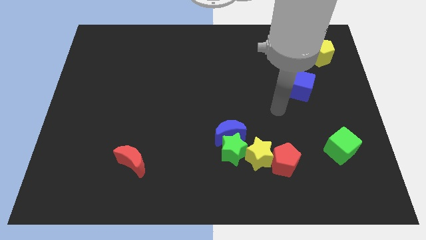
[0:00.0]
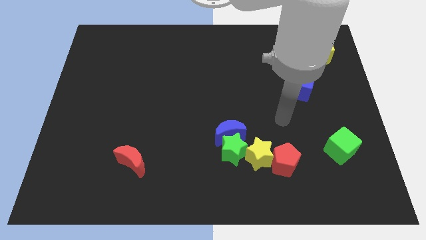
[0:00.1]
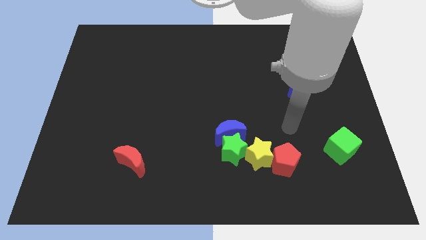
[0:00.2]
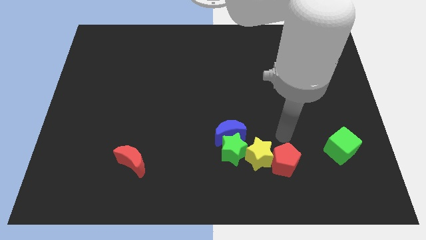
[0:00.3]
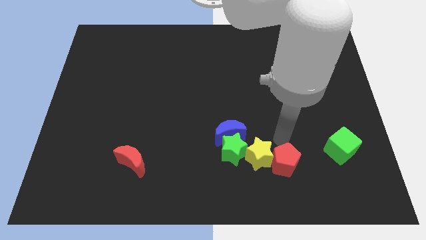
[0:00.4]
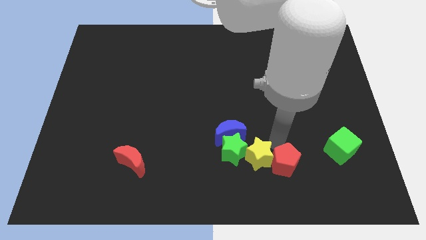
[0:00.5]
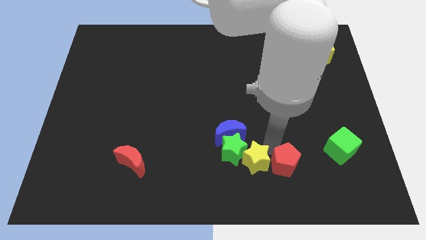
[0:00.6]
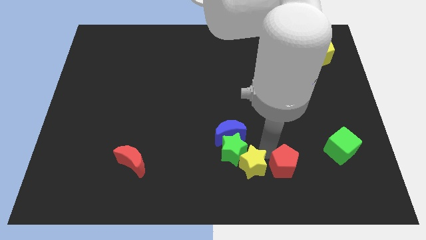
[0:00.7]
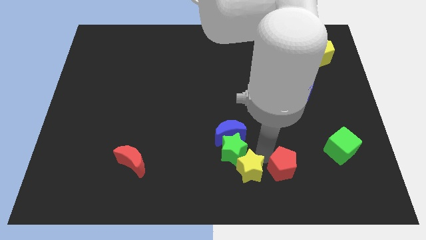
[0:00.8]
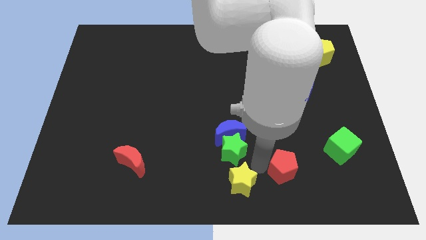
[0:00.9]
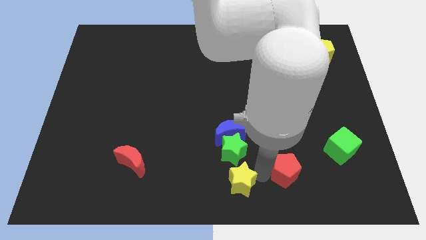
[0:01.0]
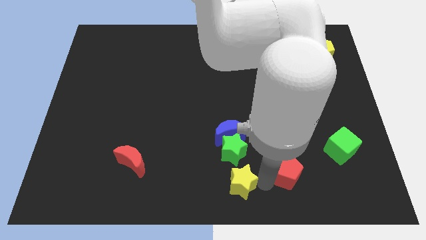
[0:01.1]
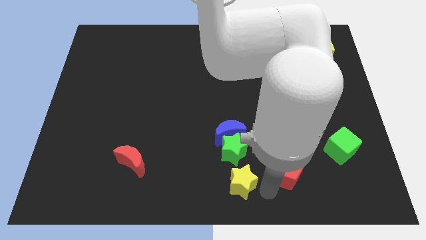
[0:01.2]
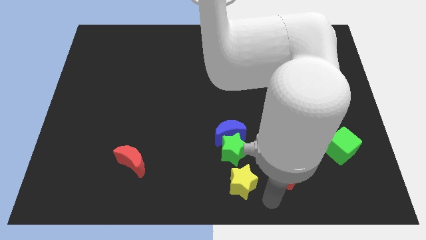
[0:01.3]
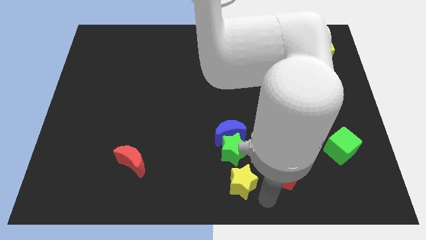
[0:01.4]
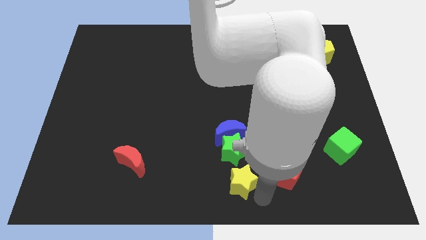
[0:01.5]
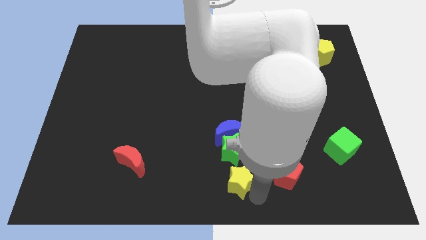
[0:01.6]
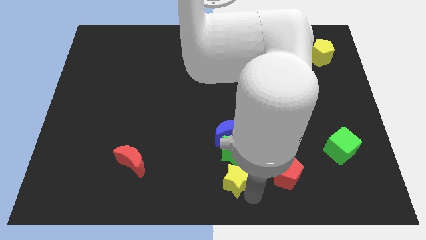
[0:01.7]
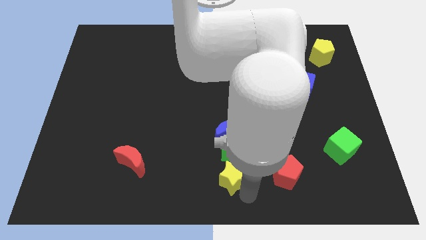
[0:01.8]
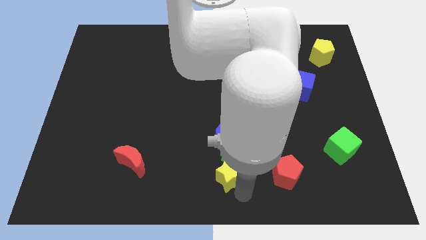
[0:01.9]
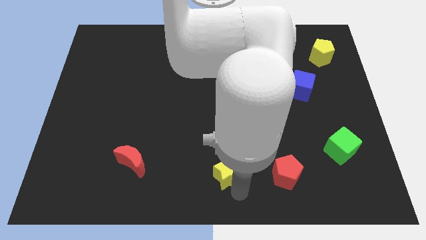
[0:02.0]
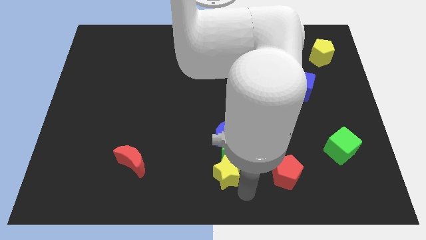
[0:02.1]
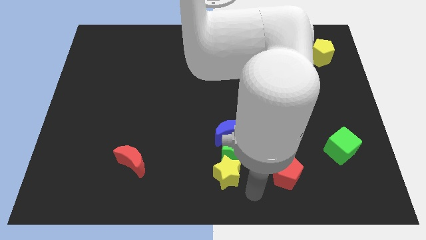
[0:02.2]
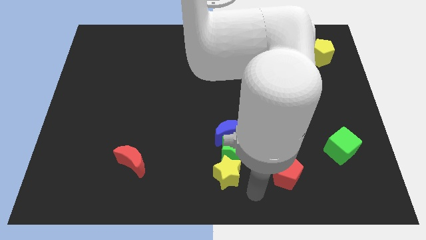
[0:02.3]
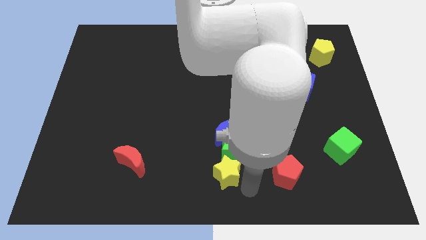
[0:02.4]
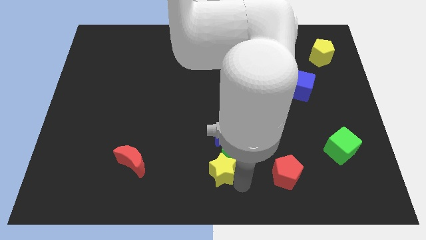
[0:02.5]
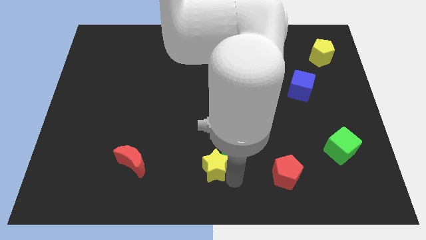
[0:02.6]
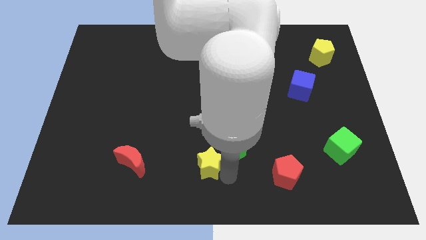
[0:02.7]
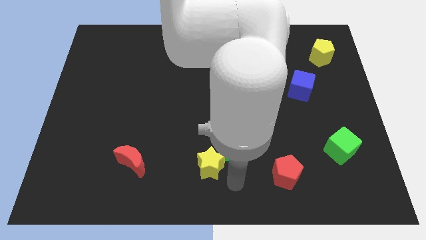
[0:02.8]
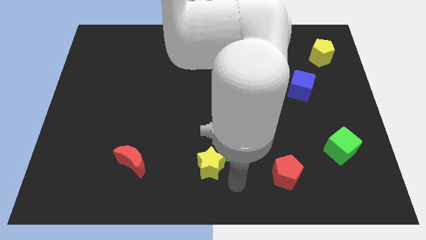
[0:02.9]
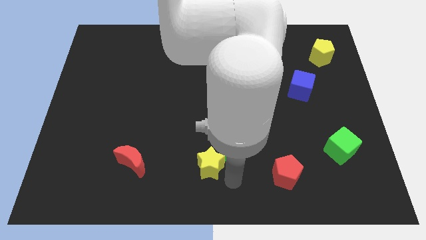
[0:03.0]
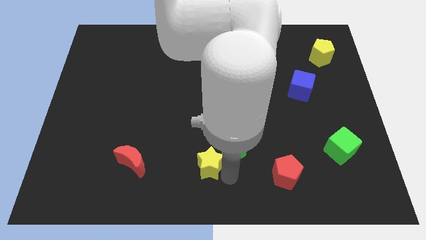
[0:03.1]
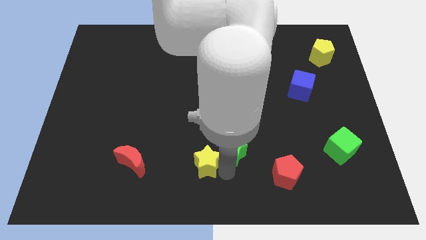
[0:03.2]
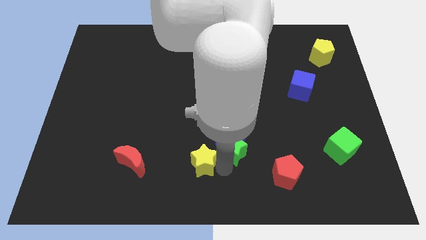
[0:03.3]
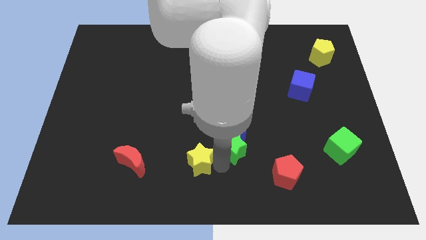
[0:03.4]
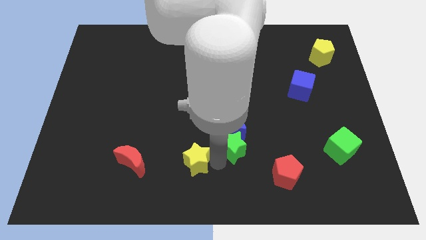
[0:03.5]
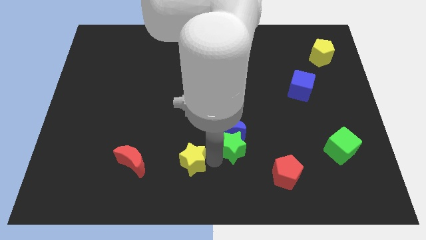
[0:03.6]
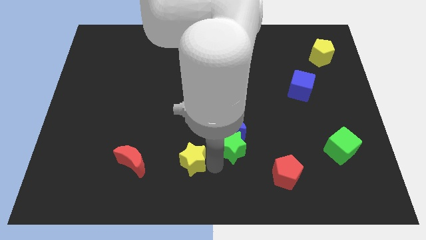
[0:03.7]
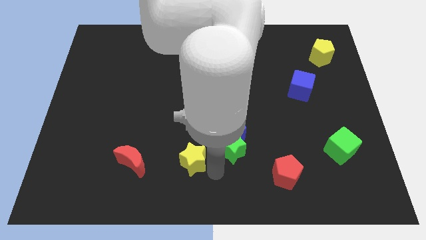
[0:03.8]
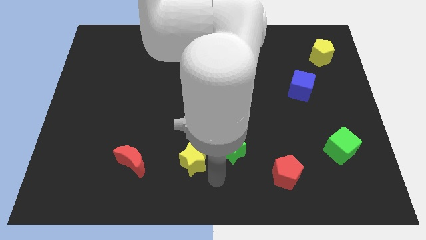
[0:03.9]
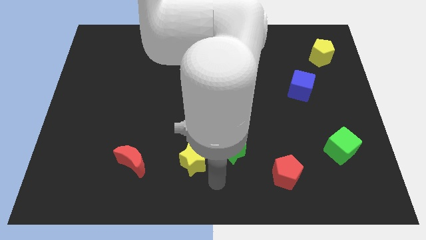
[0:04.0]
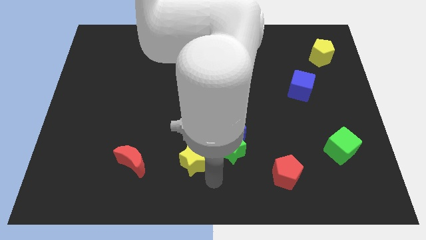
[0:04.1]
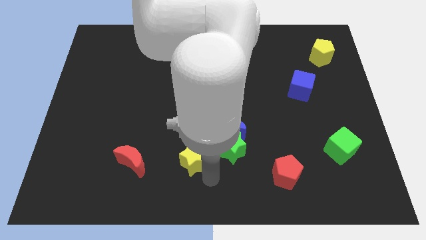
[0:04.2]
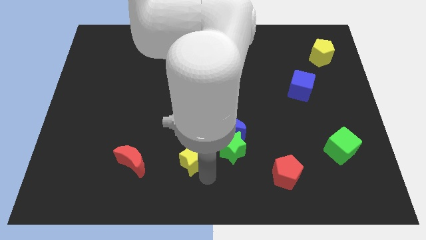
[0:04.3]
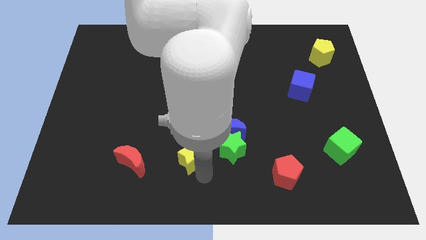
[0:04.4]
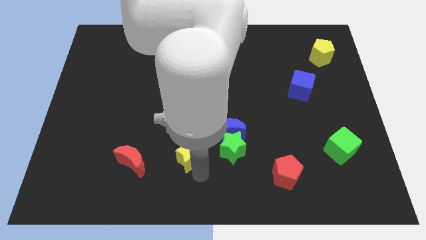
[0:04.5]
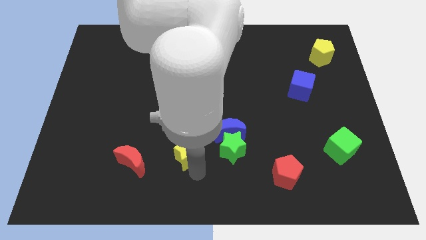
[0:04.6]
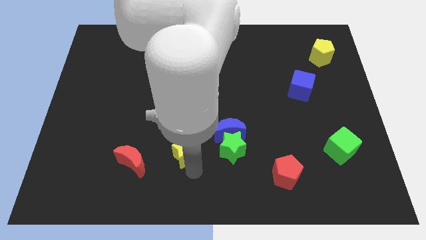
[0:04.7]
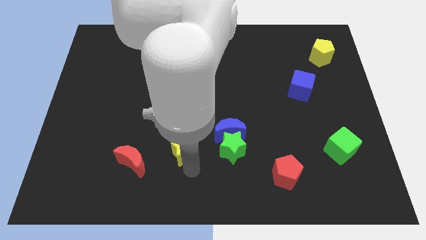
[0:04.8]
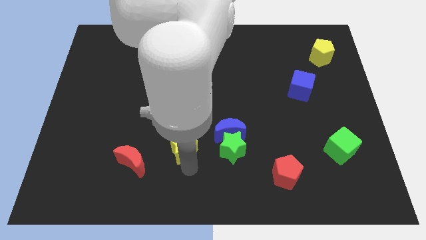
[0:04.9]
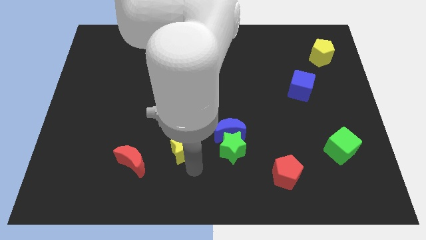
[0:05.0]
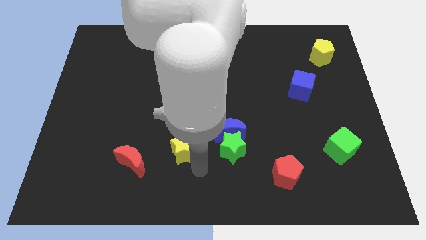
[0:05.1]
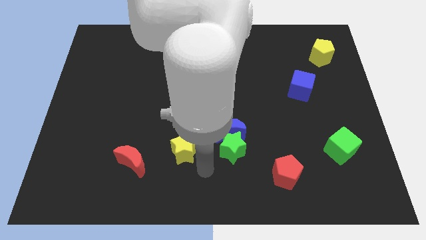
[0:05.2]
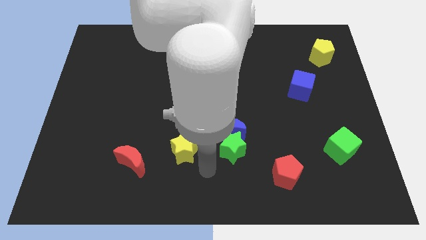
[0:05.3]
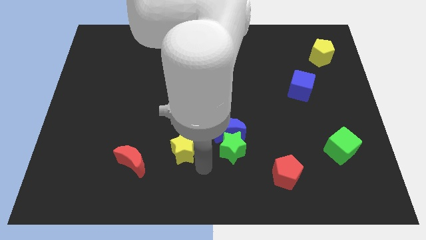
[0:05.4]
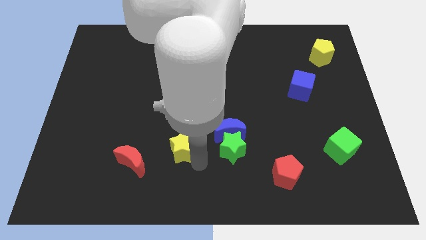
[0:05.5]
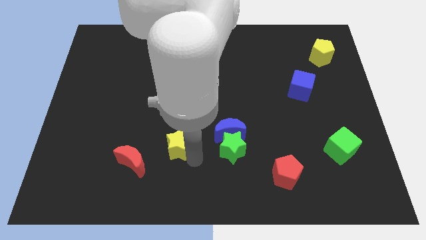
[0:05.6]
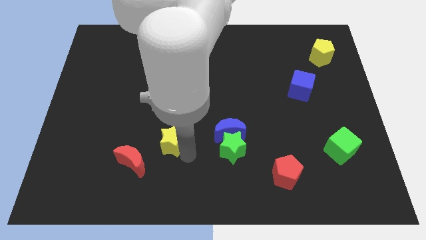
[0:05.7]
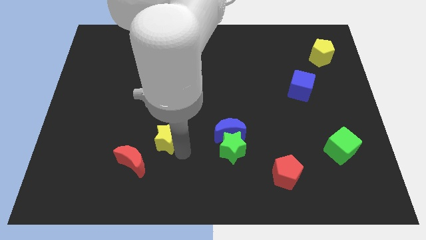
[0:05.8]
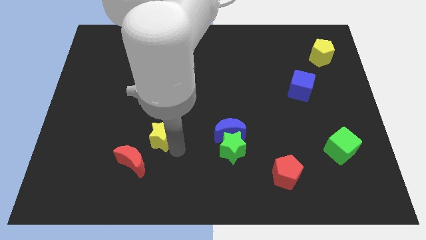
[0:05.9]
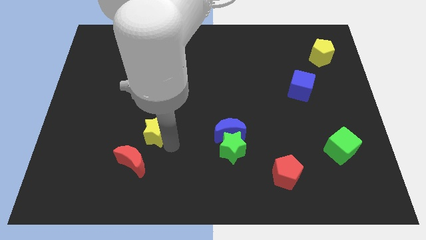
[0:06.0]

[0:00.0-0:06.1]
put the yellow star to the top of the red moon

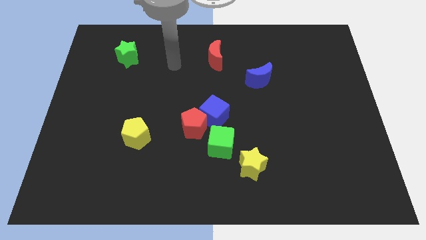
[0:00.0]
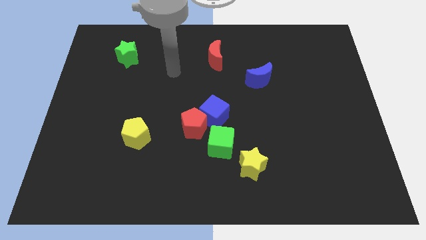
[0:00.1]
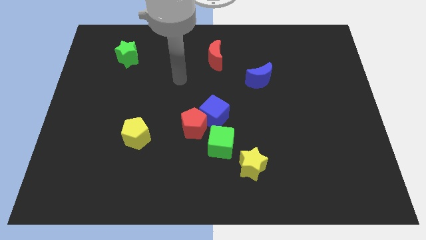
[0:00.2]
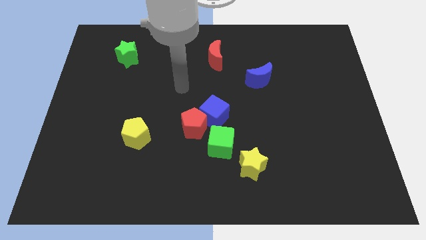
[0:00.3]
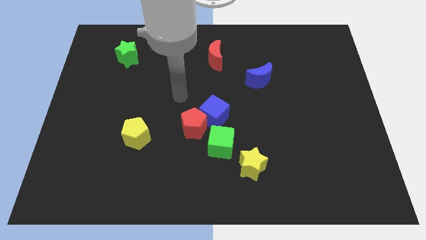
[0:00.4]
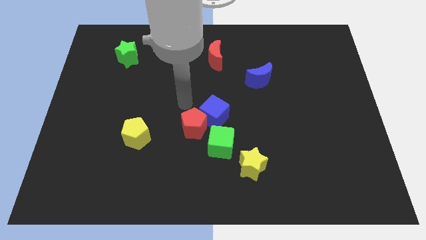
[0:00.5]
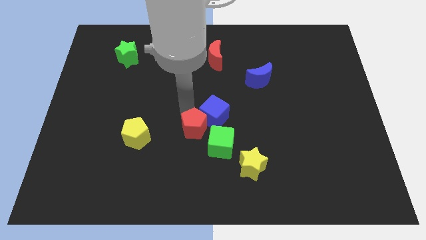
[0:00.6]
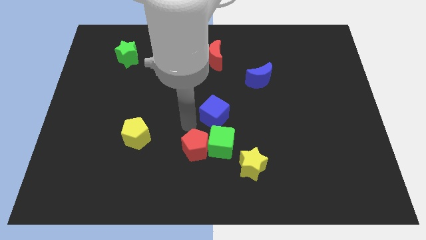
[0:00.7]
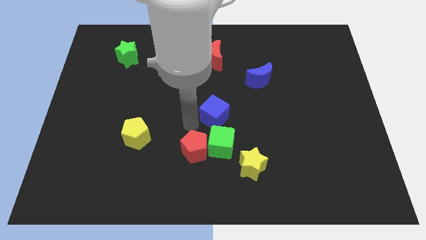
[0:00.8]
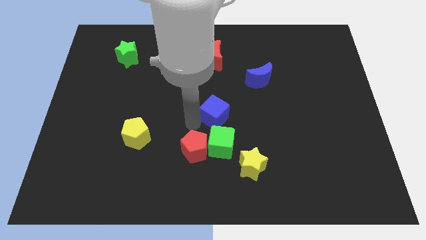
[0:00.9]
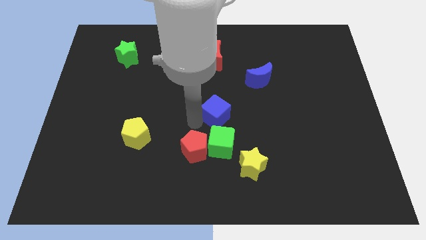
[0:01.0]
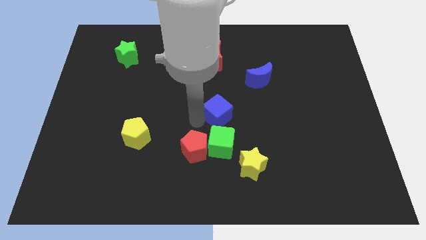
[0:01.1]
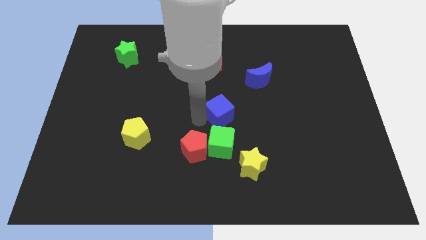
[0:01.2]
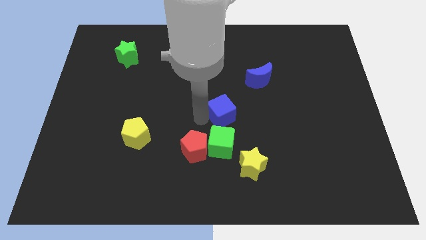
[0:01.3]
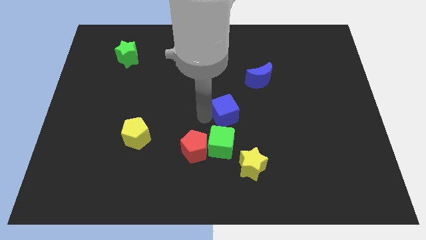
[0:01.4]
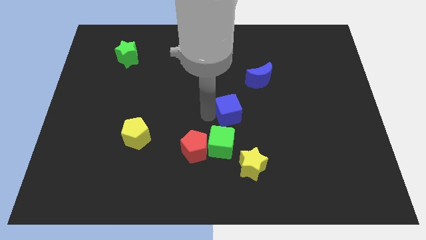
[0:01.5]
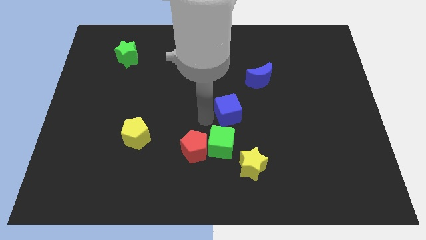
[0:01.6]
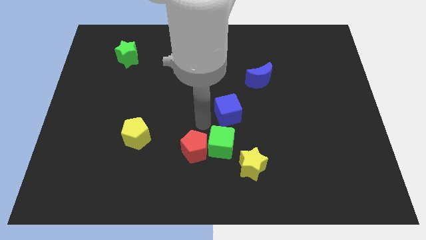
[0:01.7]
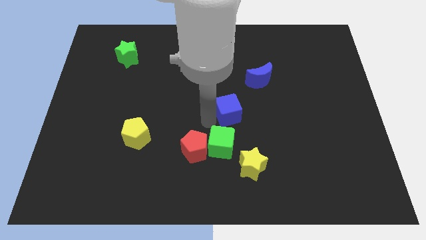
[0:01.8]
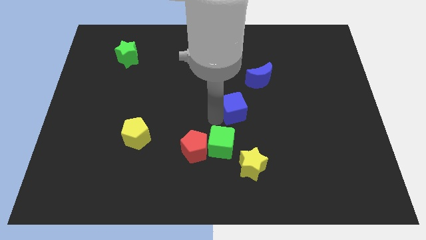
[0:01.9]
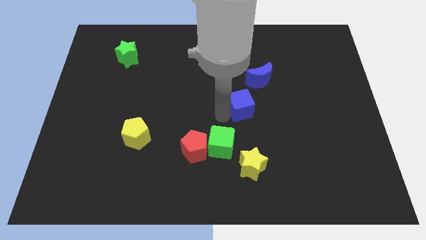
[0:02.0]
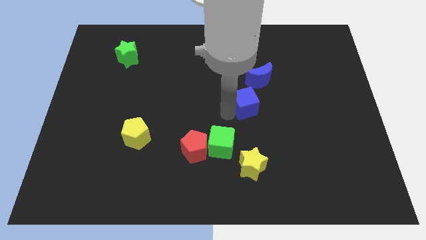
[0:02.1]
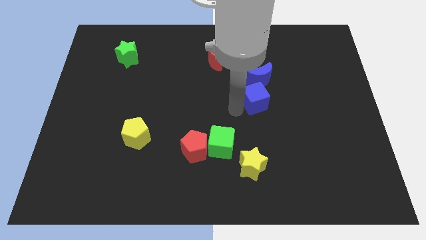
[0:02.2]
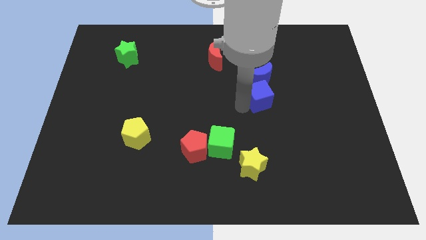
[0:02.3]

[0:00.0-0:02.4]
slide the blue cube diagonally down and to the right of the blue moon
